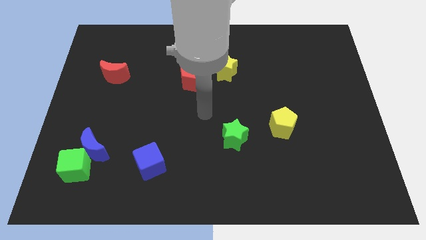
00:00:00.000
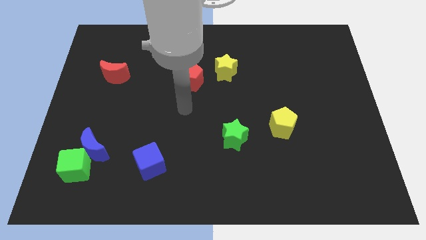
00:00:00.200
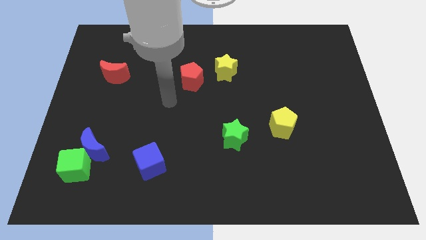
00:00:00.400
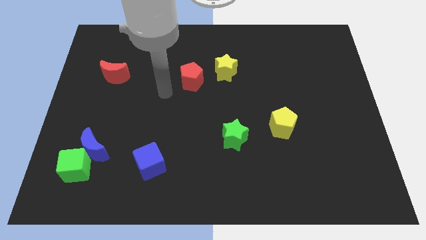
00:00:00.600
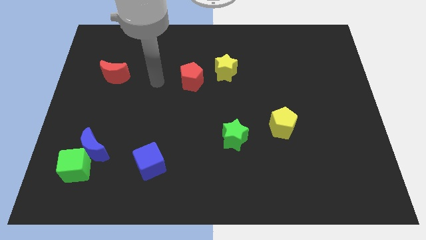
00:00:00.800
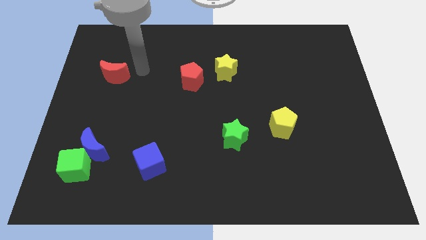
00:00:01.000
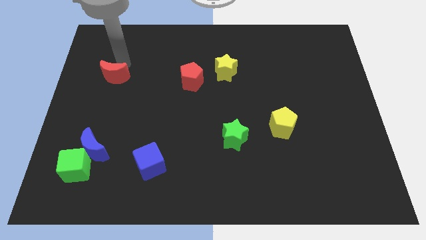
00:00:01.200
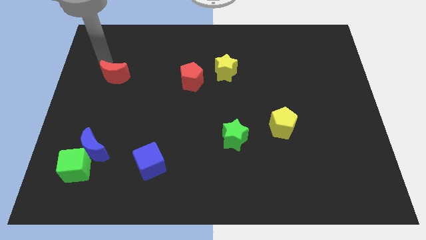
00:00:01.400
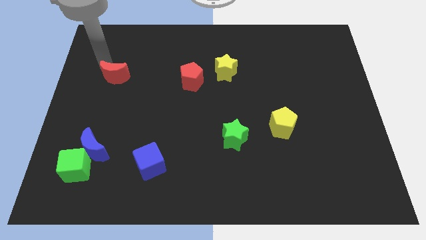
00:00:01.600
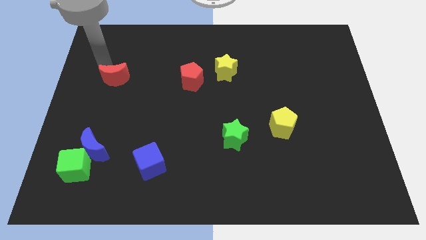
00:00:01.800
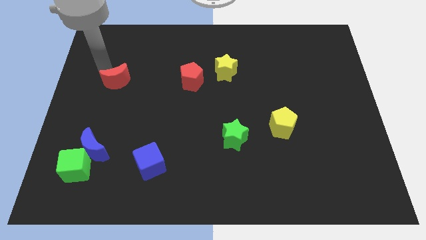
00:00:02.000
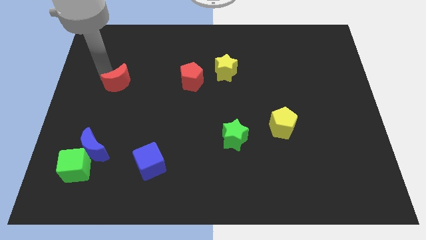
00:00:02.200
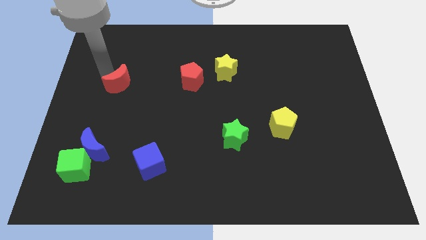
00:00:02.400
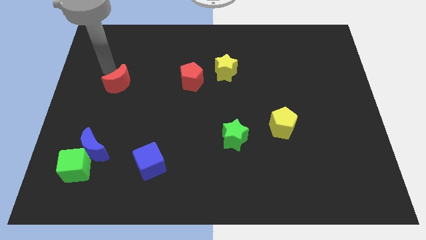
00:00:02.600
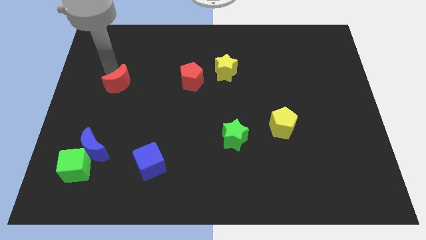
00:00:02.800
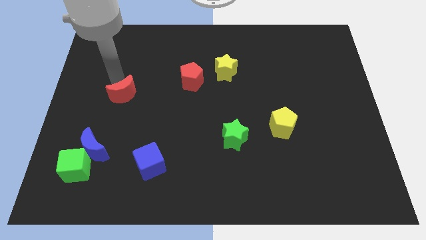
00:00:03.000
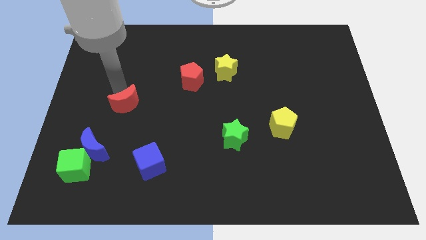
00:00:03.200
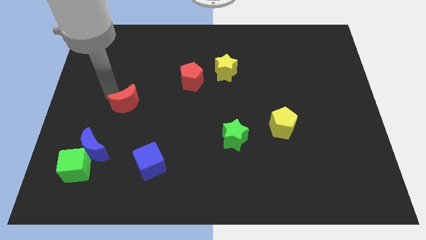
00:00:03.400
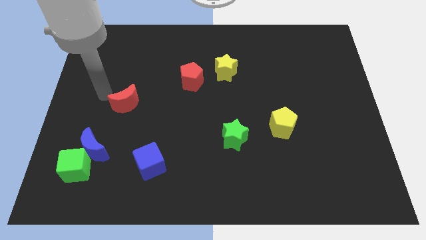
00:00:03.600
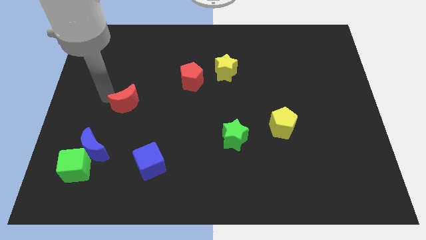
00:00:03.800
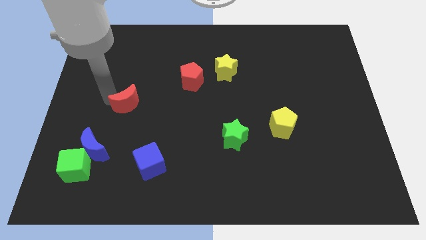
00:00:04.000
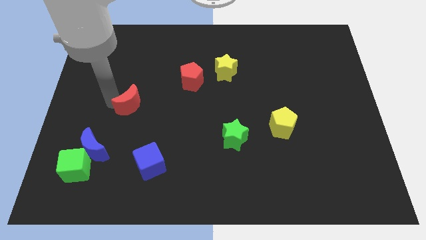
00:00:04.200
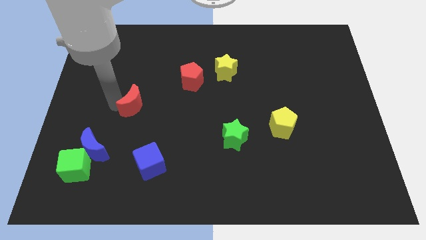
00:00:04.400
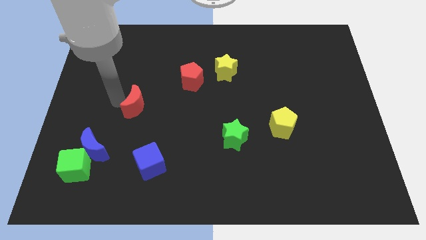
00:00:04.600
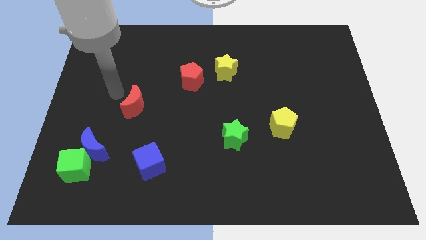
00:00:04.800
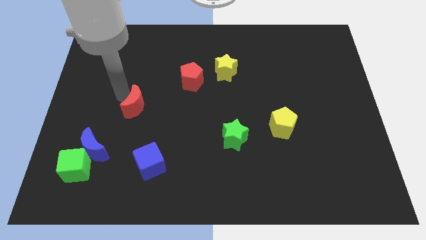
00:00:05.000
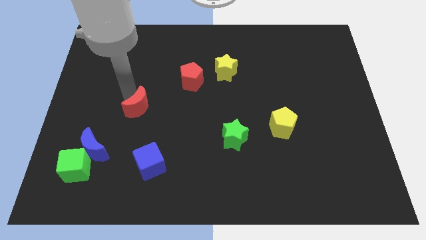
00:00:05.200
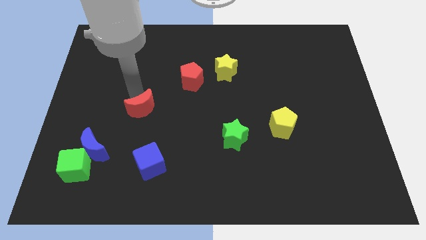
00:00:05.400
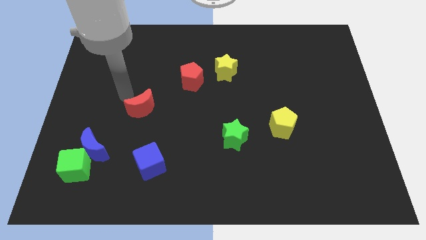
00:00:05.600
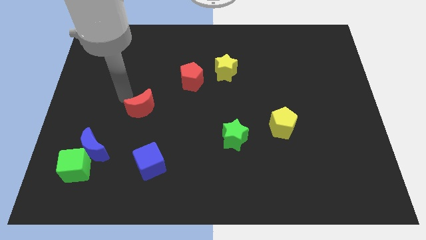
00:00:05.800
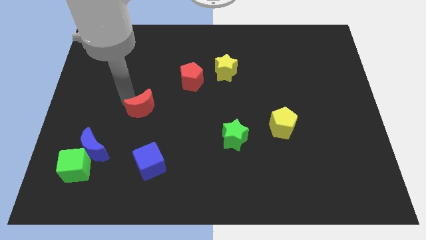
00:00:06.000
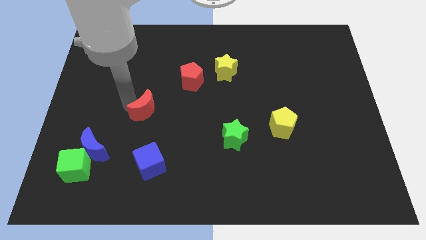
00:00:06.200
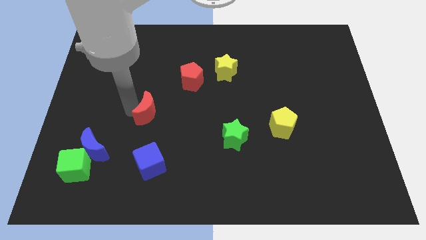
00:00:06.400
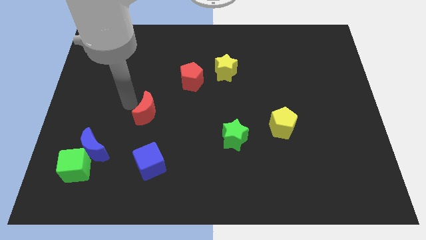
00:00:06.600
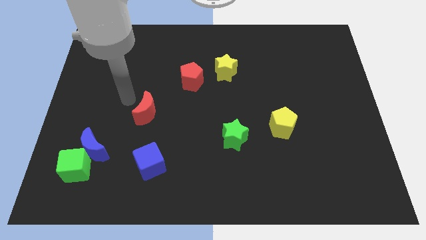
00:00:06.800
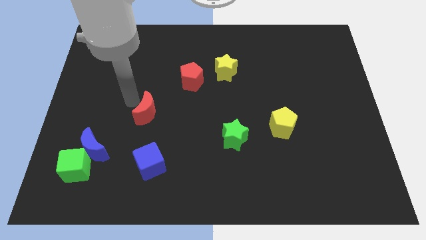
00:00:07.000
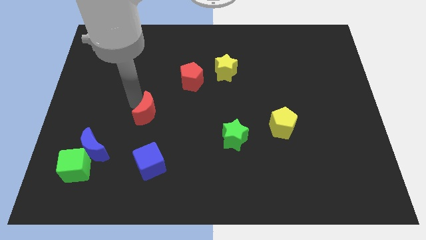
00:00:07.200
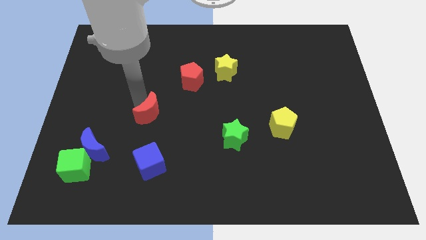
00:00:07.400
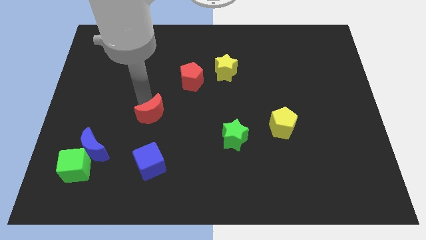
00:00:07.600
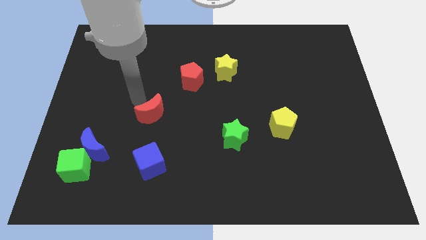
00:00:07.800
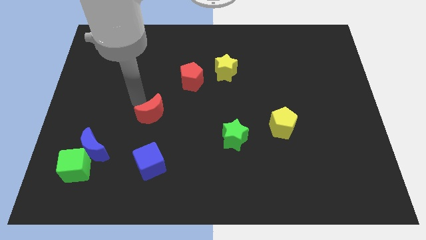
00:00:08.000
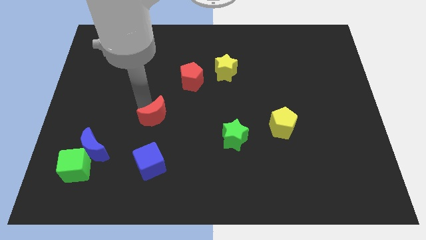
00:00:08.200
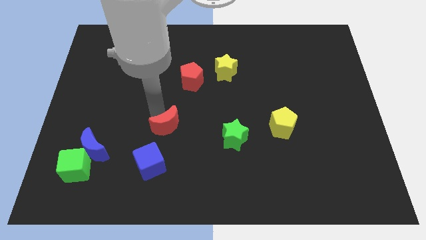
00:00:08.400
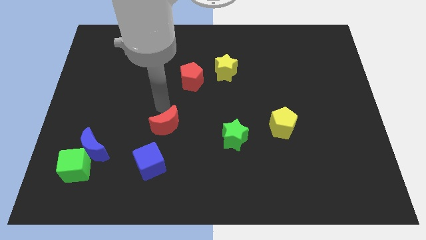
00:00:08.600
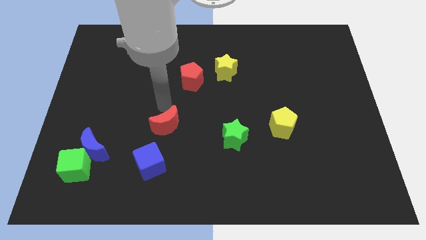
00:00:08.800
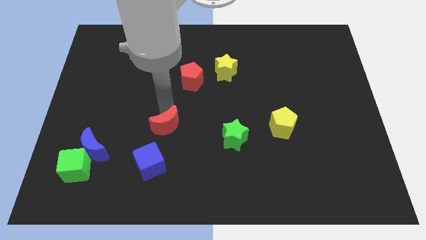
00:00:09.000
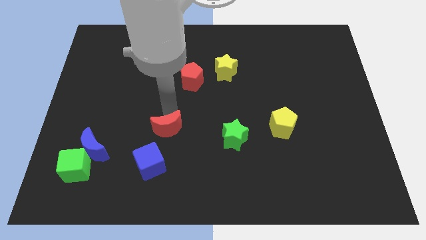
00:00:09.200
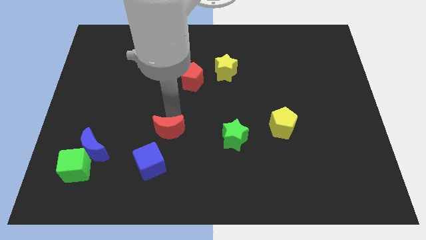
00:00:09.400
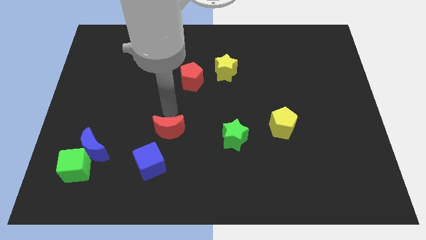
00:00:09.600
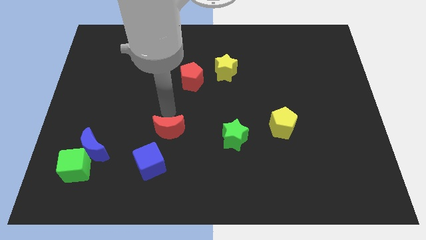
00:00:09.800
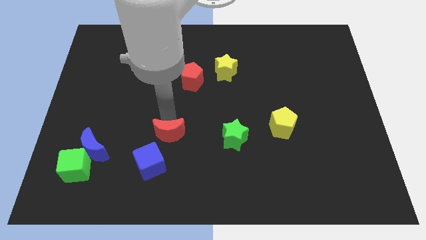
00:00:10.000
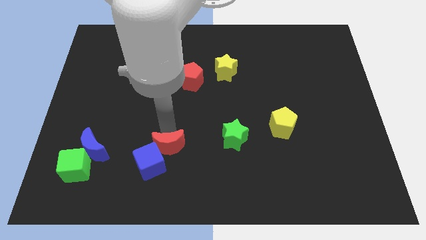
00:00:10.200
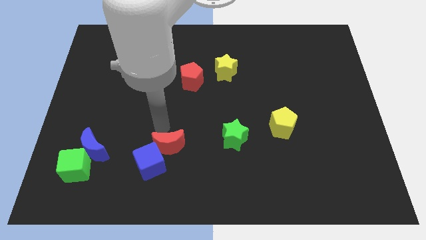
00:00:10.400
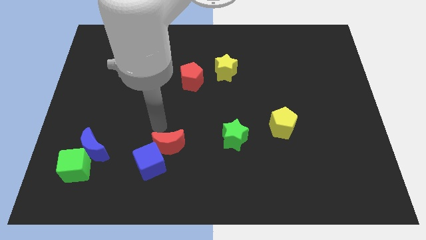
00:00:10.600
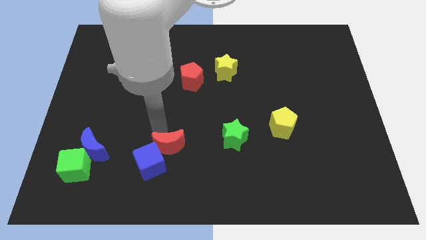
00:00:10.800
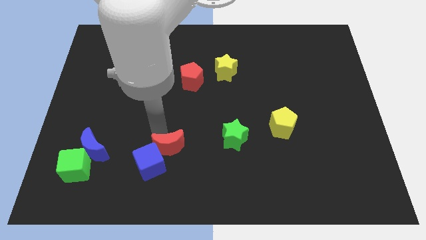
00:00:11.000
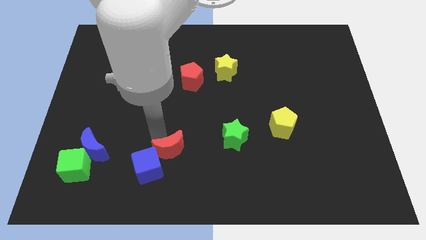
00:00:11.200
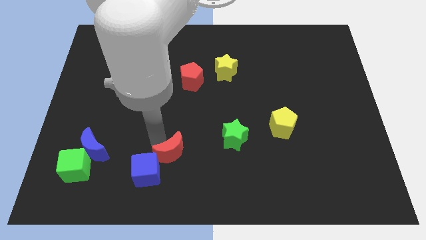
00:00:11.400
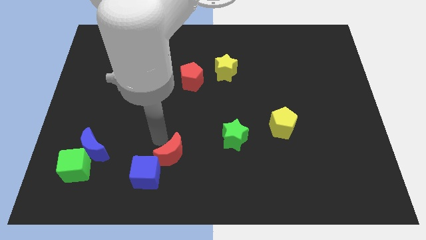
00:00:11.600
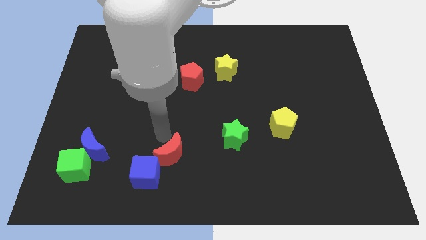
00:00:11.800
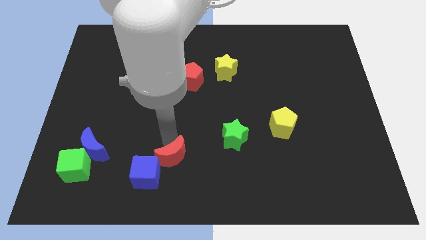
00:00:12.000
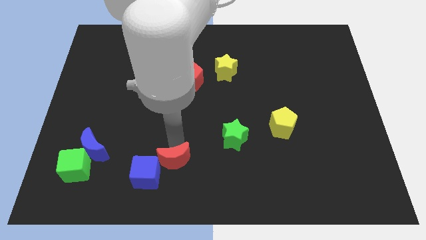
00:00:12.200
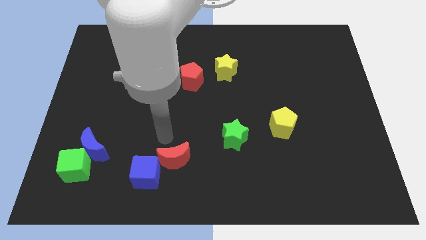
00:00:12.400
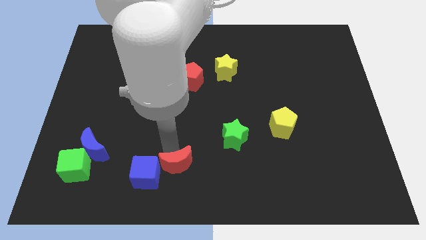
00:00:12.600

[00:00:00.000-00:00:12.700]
put the red moon to the bottom side

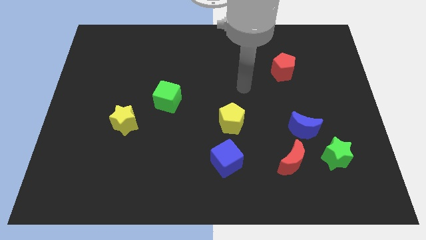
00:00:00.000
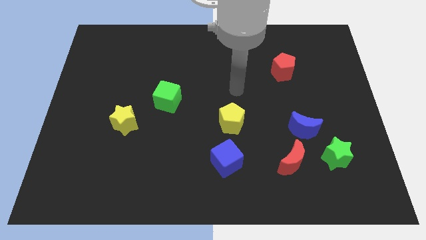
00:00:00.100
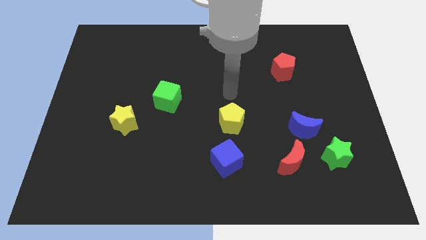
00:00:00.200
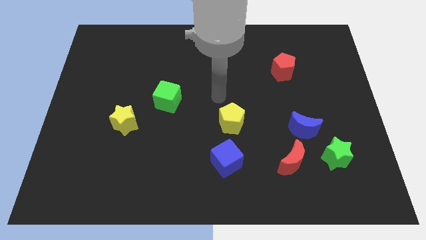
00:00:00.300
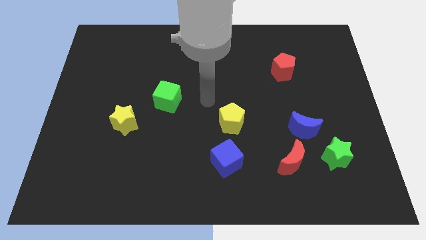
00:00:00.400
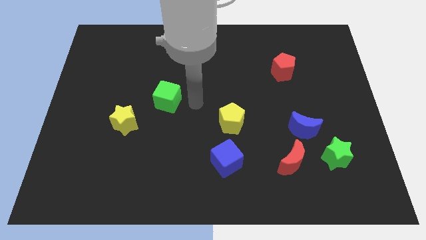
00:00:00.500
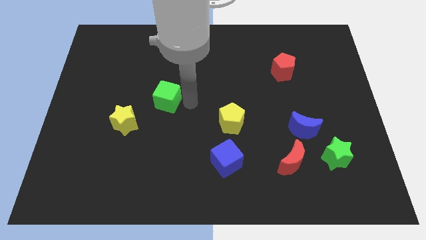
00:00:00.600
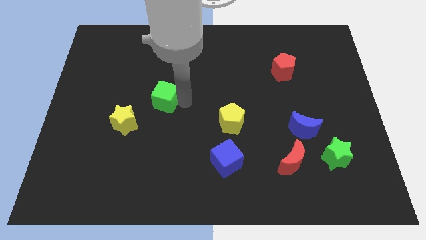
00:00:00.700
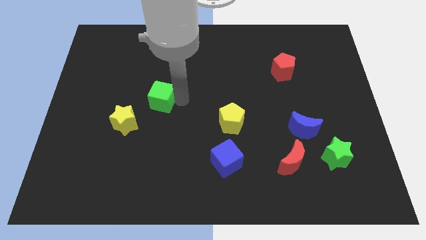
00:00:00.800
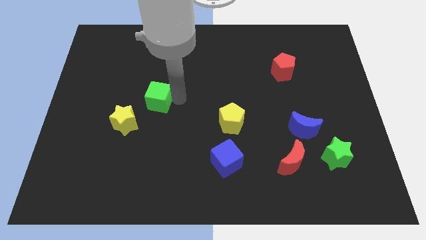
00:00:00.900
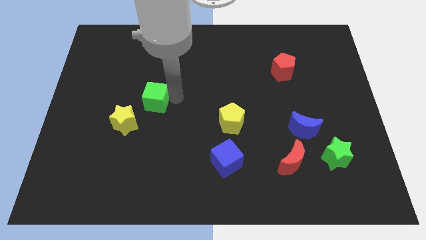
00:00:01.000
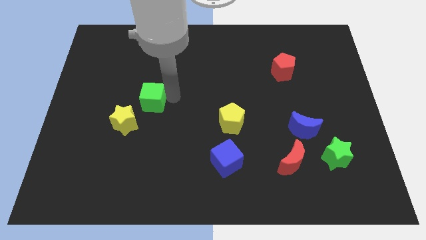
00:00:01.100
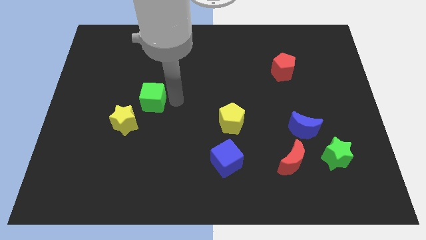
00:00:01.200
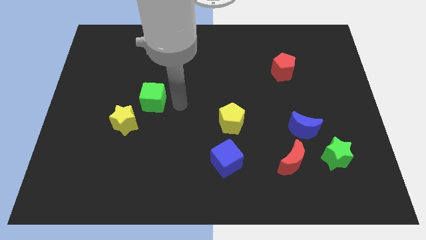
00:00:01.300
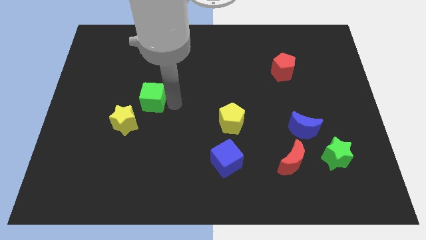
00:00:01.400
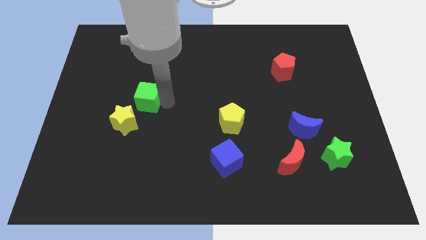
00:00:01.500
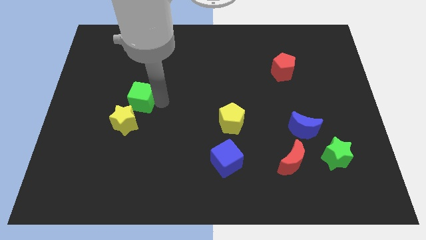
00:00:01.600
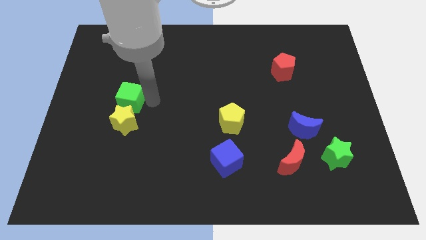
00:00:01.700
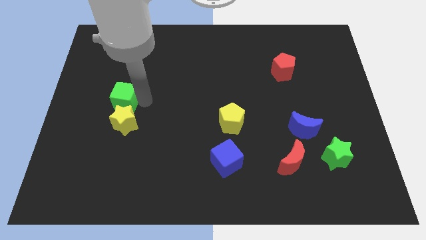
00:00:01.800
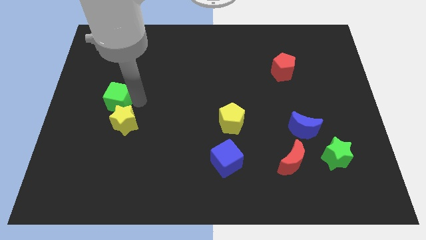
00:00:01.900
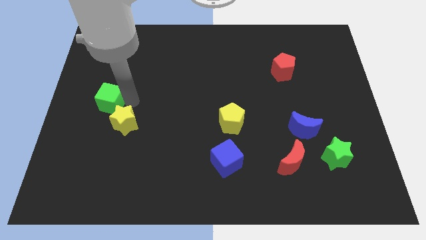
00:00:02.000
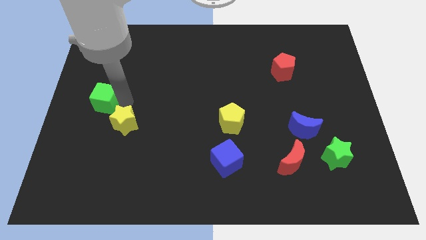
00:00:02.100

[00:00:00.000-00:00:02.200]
push the green cube to the center left
